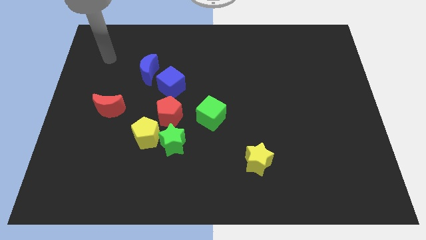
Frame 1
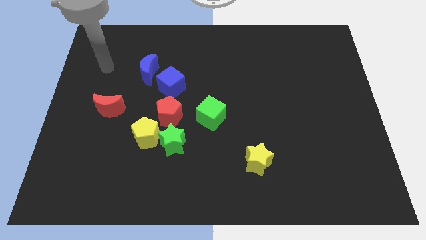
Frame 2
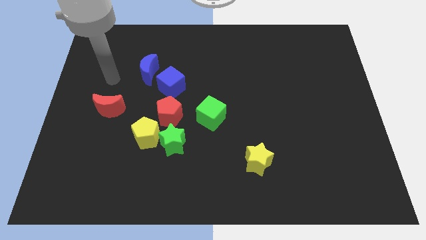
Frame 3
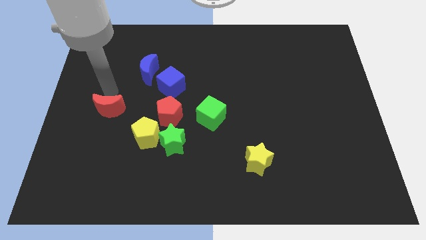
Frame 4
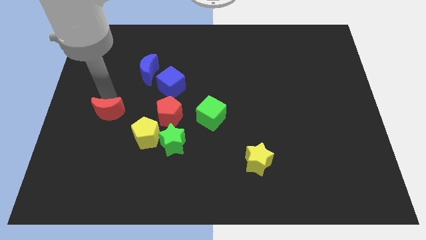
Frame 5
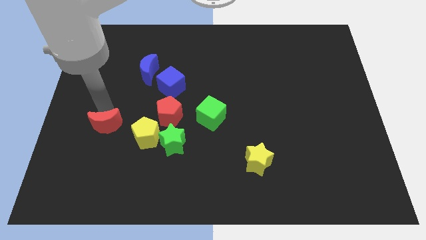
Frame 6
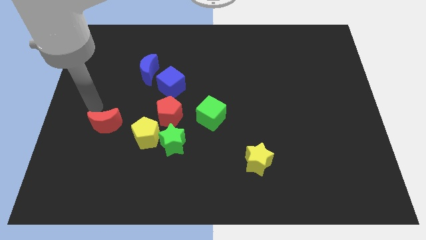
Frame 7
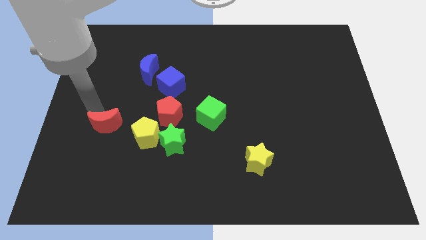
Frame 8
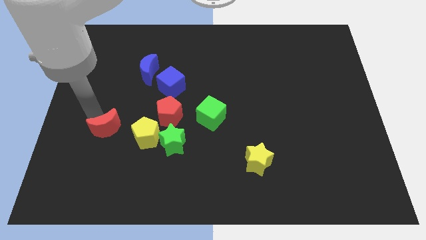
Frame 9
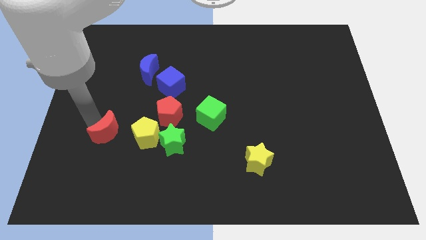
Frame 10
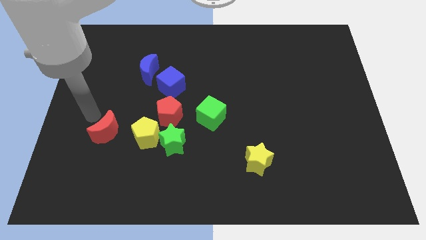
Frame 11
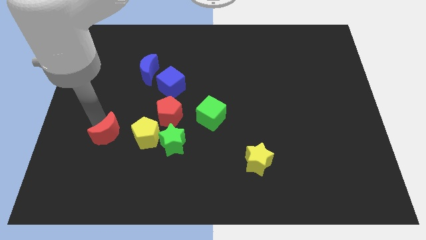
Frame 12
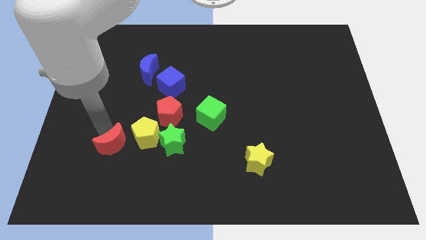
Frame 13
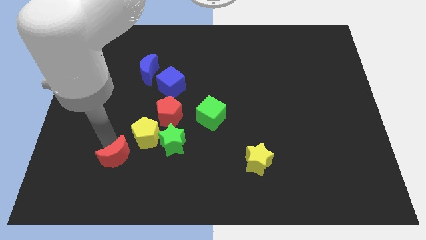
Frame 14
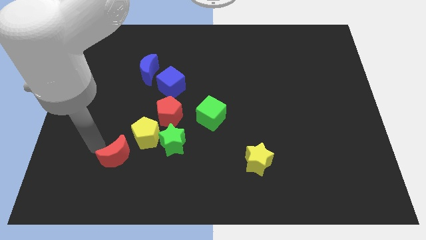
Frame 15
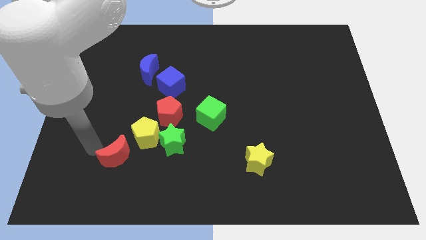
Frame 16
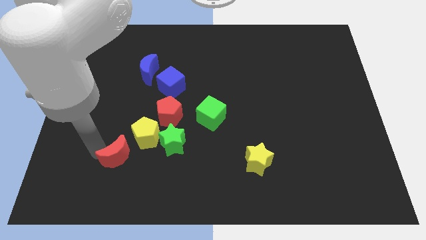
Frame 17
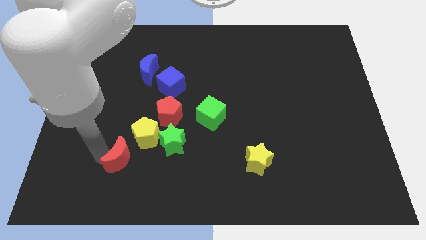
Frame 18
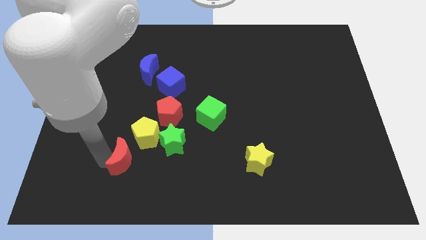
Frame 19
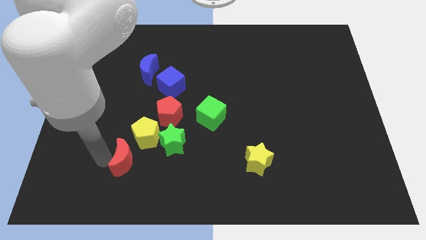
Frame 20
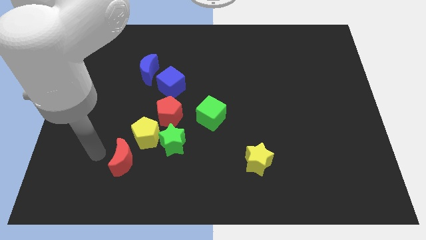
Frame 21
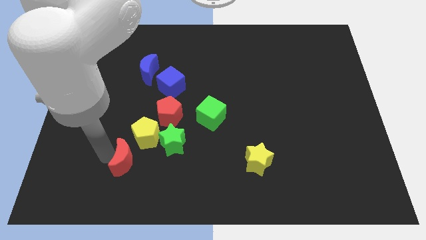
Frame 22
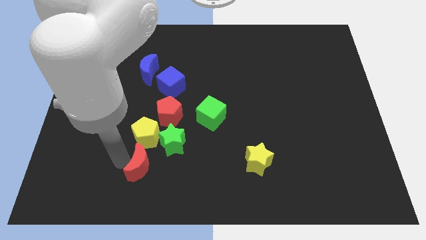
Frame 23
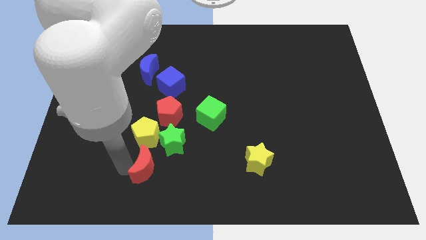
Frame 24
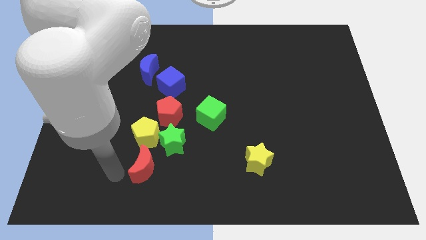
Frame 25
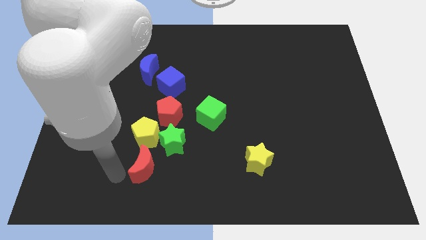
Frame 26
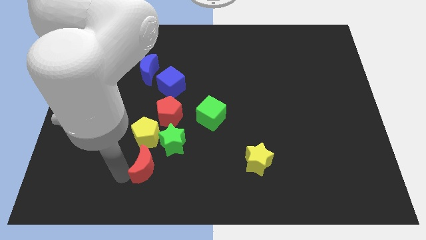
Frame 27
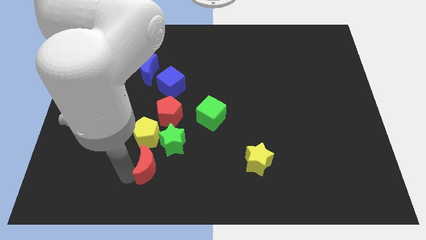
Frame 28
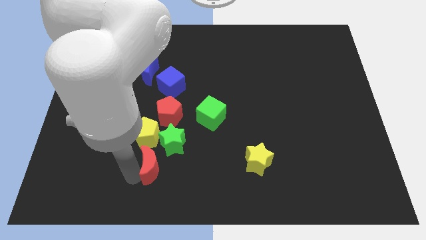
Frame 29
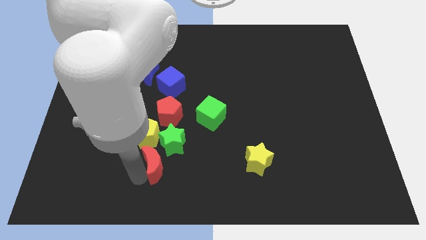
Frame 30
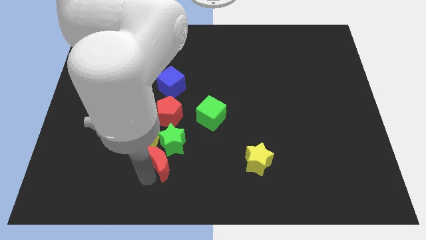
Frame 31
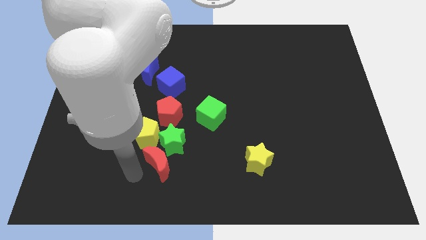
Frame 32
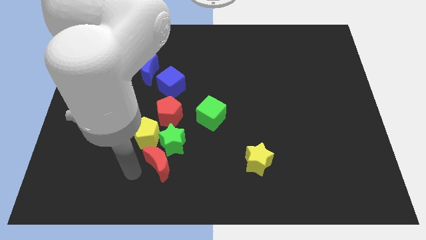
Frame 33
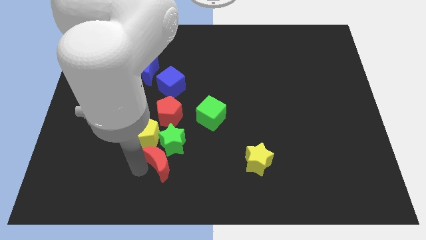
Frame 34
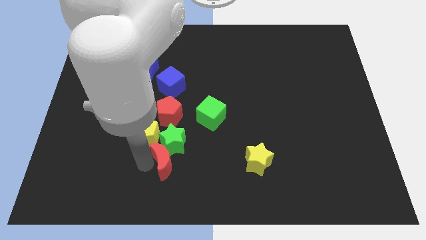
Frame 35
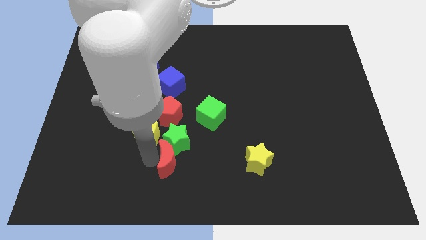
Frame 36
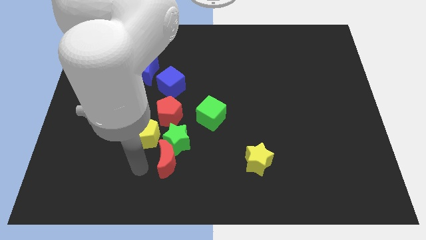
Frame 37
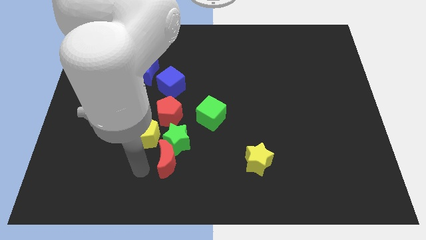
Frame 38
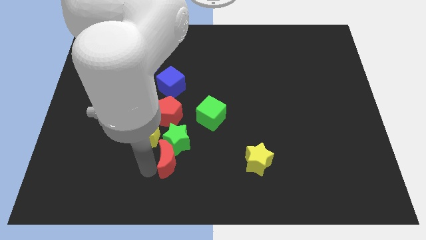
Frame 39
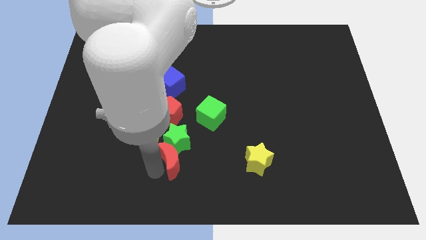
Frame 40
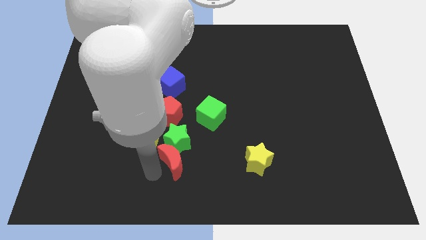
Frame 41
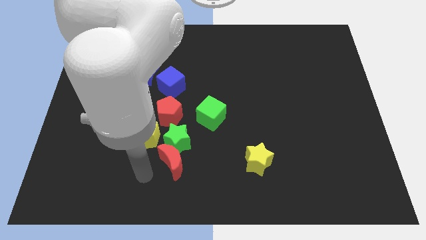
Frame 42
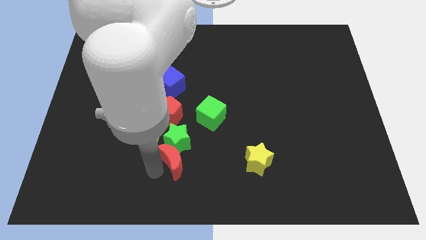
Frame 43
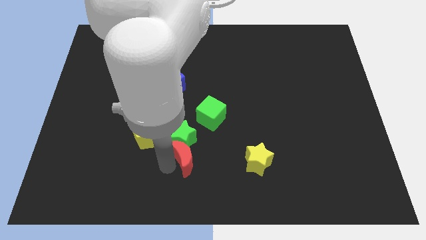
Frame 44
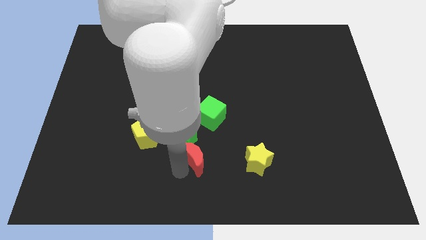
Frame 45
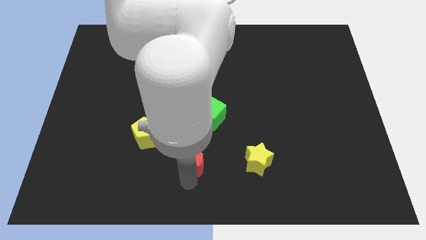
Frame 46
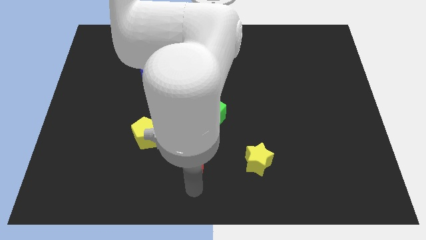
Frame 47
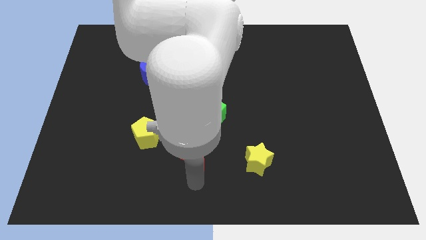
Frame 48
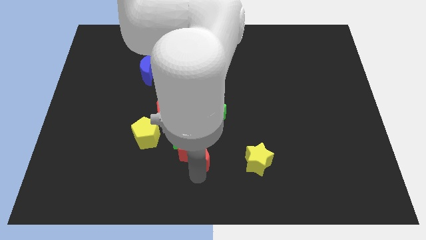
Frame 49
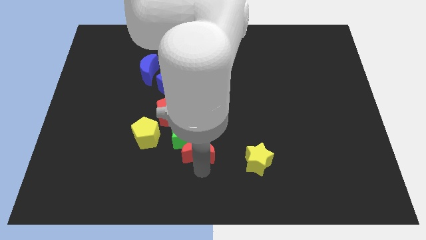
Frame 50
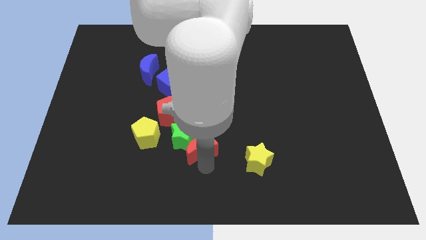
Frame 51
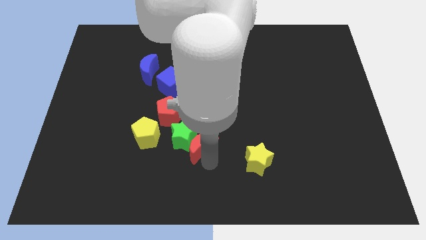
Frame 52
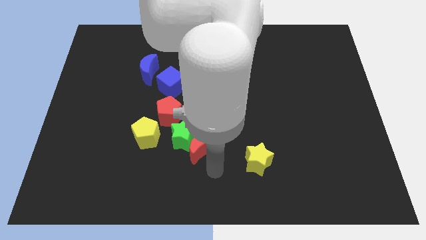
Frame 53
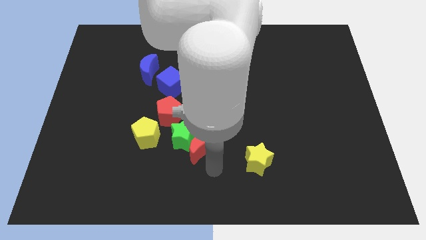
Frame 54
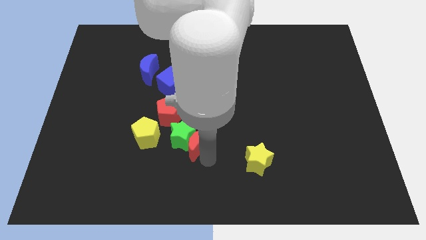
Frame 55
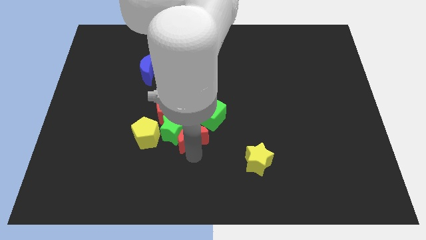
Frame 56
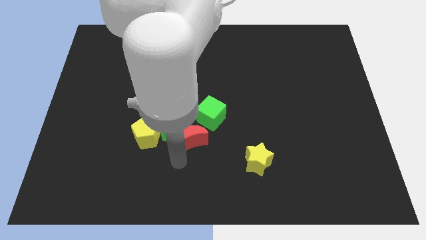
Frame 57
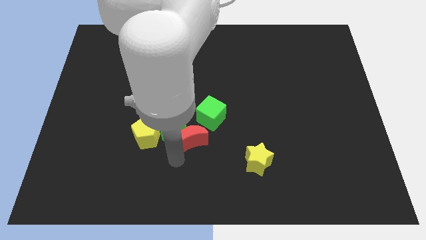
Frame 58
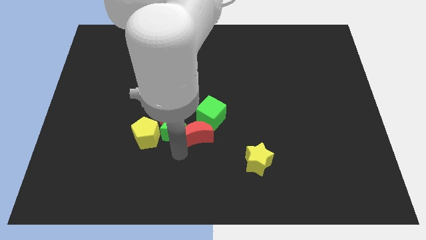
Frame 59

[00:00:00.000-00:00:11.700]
slide the red moon close to the green cube

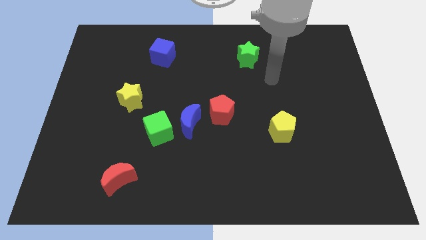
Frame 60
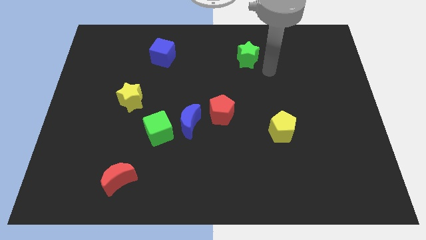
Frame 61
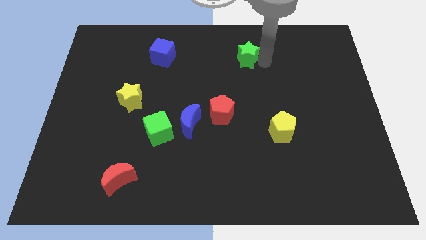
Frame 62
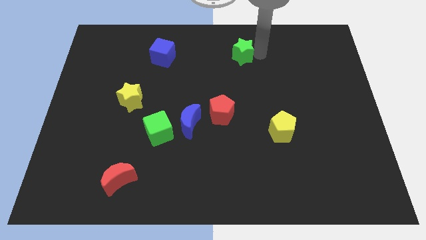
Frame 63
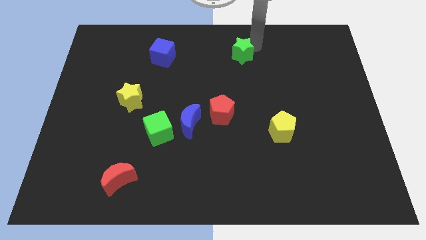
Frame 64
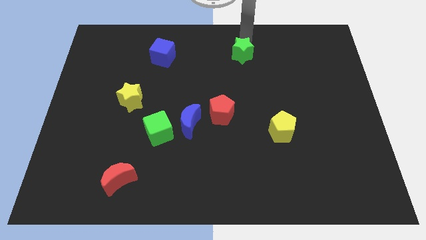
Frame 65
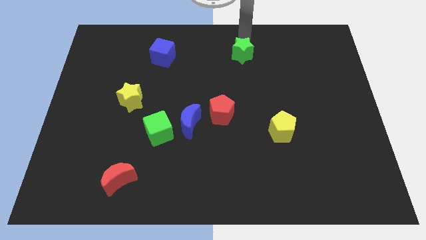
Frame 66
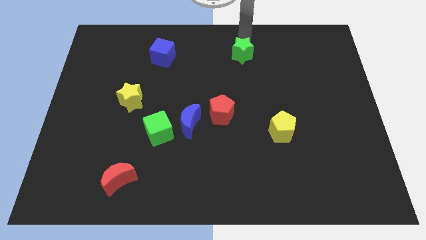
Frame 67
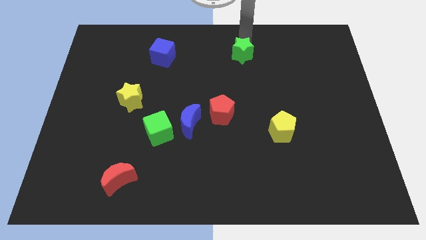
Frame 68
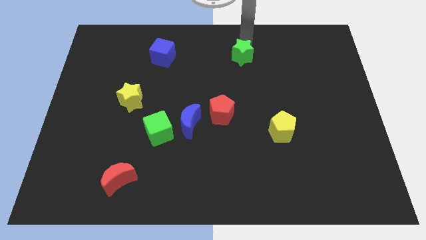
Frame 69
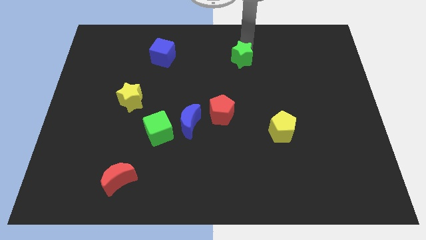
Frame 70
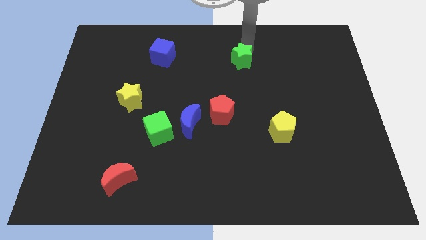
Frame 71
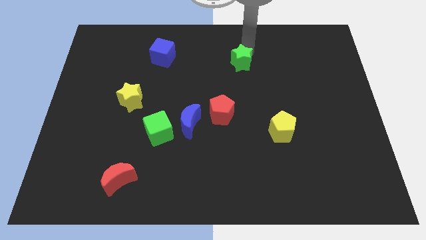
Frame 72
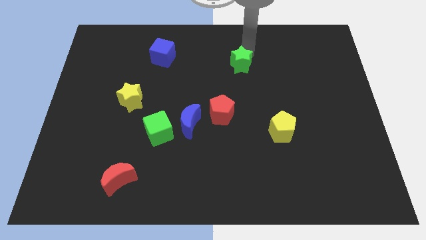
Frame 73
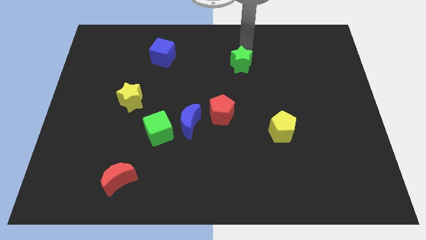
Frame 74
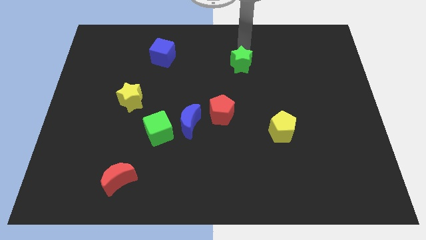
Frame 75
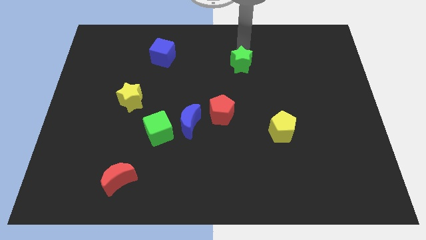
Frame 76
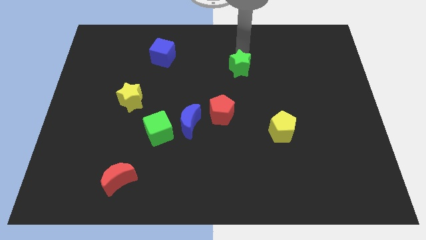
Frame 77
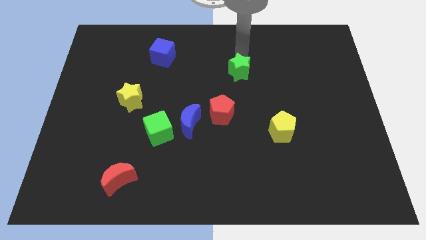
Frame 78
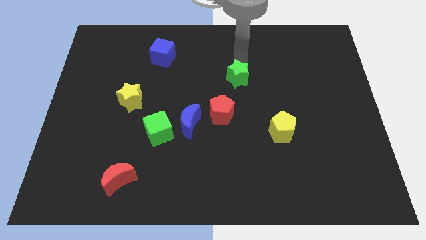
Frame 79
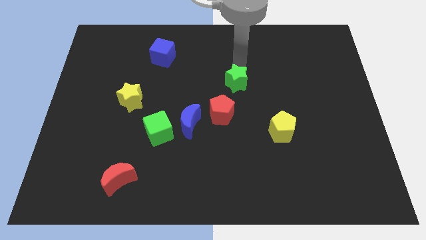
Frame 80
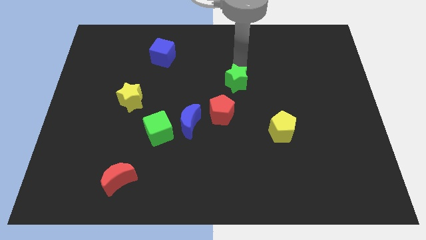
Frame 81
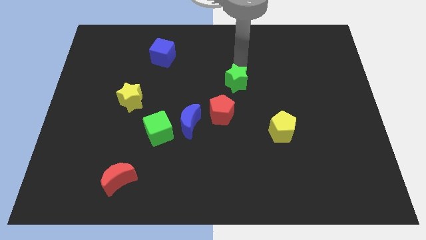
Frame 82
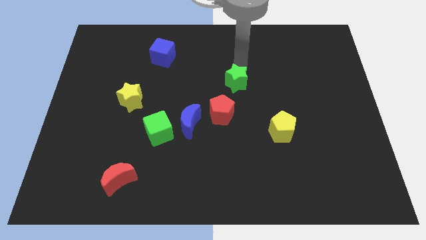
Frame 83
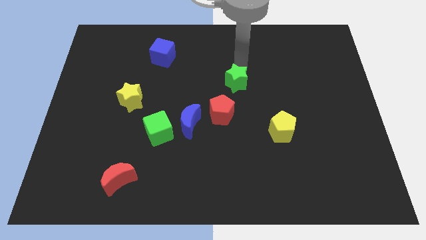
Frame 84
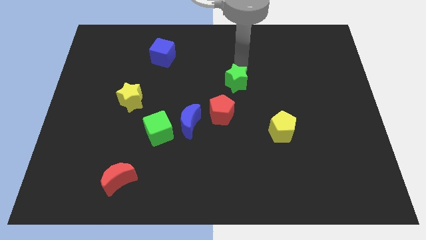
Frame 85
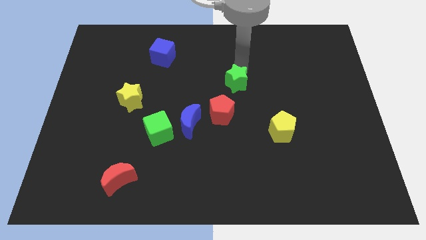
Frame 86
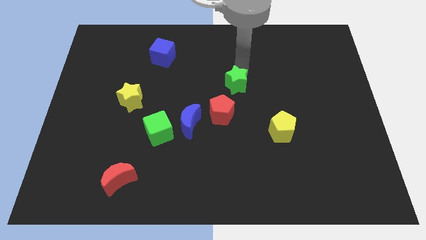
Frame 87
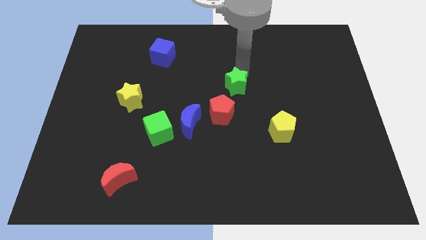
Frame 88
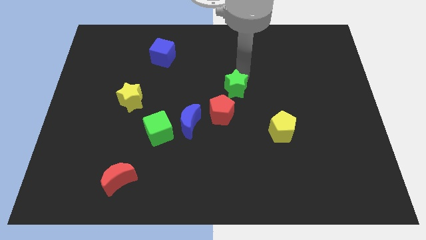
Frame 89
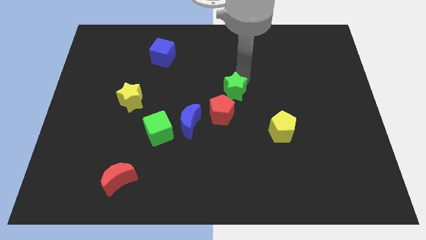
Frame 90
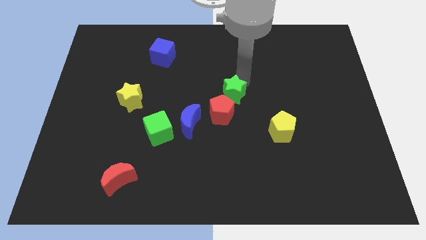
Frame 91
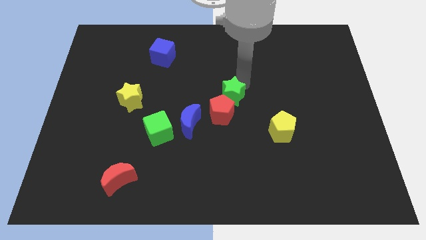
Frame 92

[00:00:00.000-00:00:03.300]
put the green star next to the red pentagon
